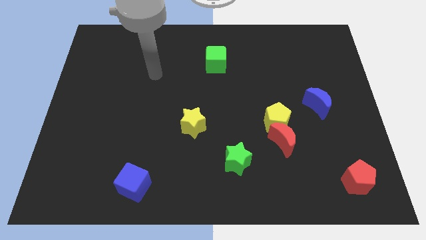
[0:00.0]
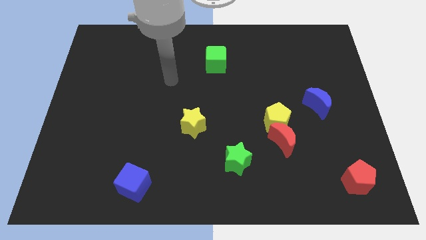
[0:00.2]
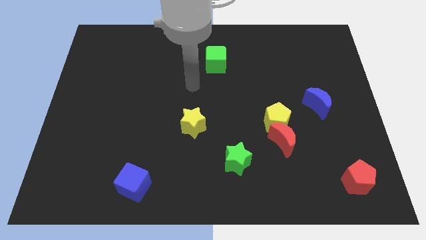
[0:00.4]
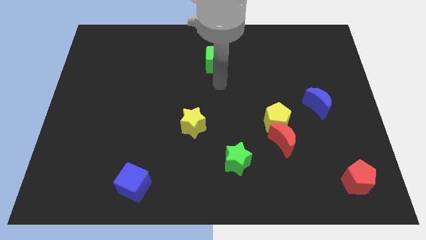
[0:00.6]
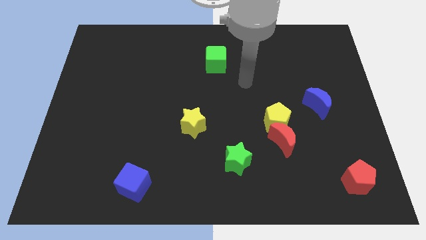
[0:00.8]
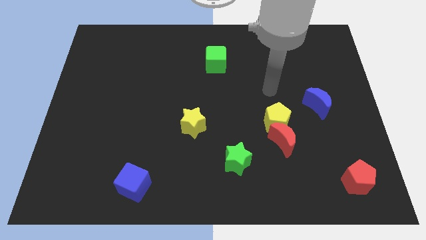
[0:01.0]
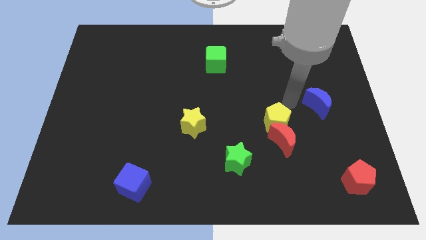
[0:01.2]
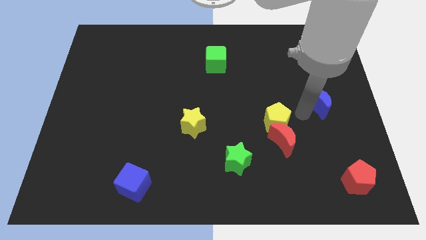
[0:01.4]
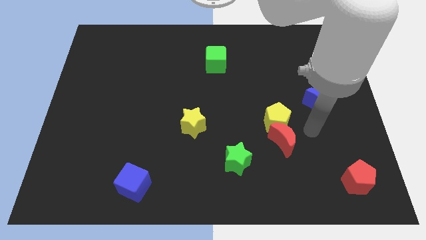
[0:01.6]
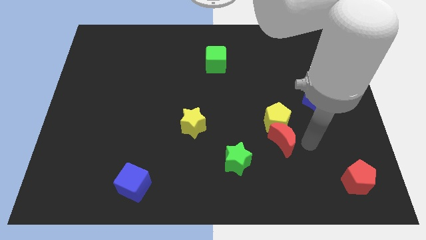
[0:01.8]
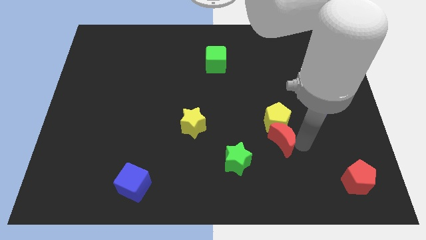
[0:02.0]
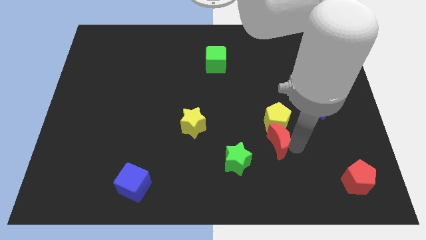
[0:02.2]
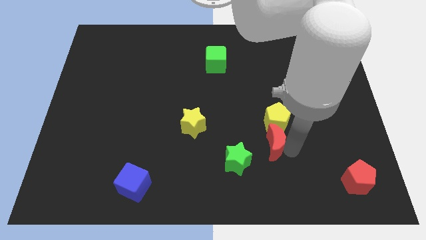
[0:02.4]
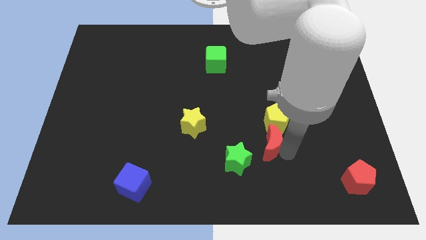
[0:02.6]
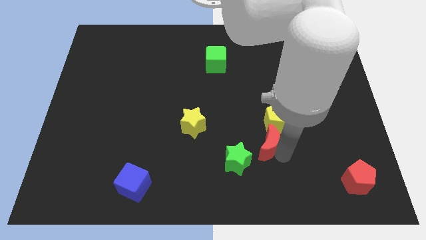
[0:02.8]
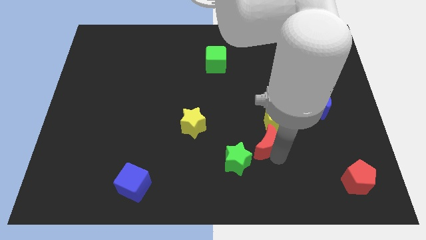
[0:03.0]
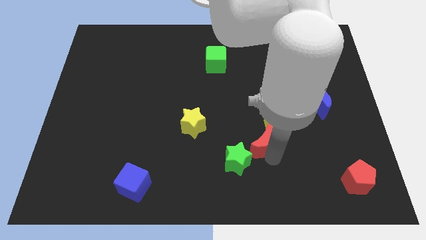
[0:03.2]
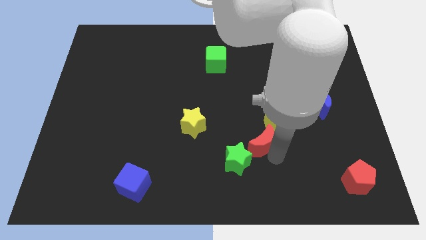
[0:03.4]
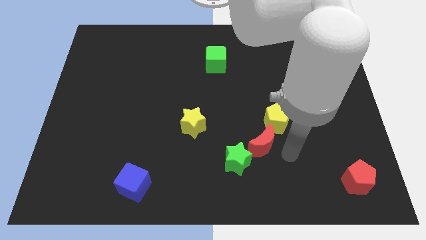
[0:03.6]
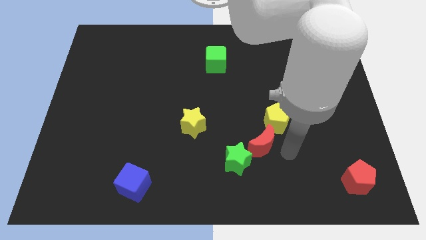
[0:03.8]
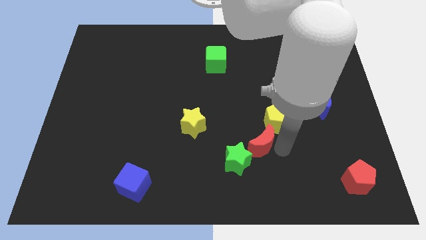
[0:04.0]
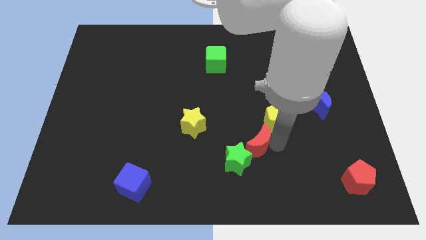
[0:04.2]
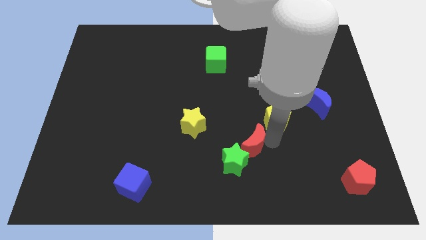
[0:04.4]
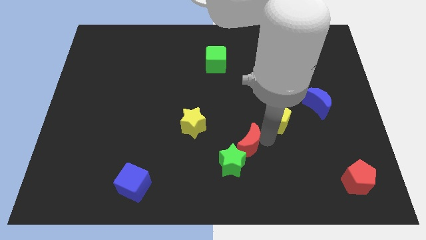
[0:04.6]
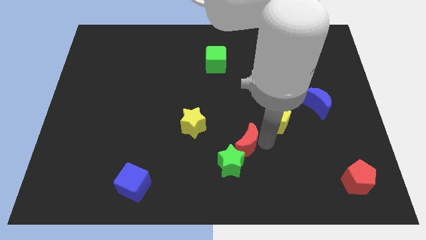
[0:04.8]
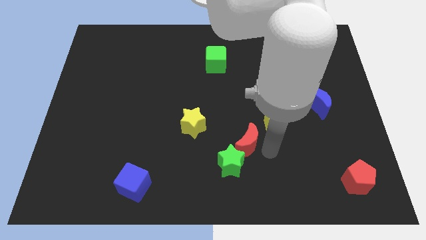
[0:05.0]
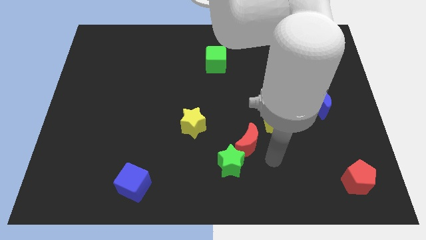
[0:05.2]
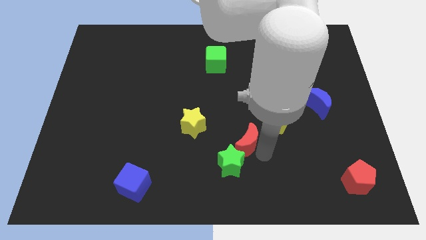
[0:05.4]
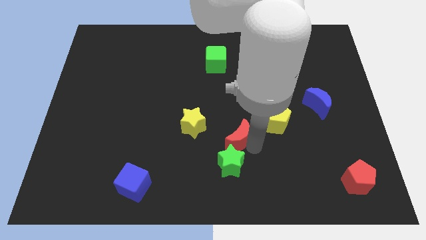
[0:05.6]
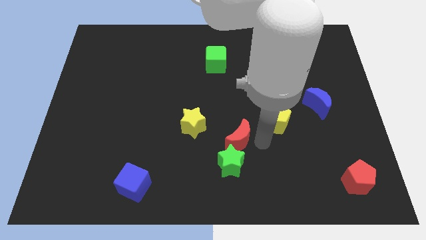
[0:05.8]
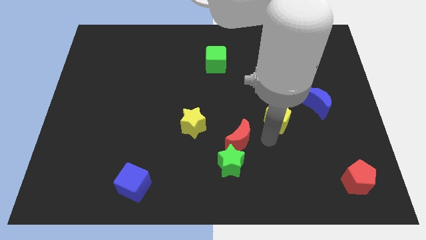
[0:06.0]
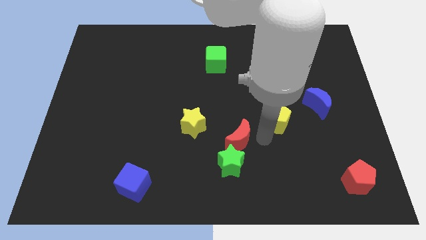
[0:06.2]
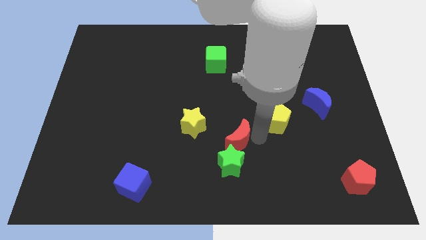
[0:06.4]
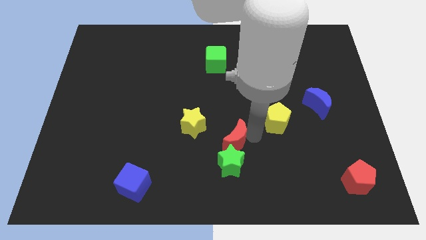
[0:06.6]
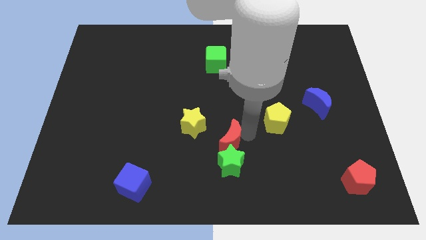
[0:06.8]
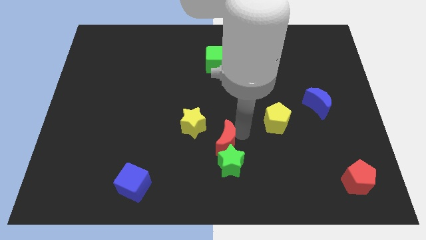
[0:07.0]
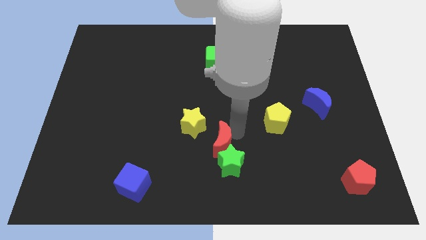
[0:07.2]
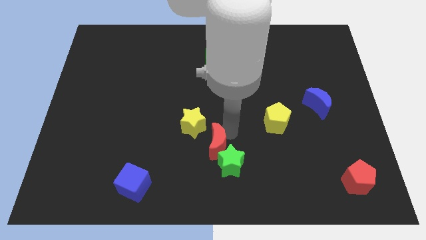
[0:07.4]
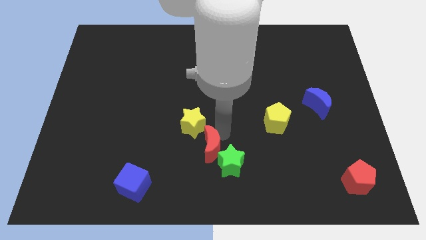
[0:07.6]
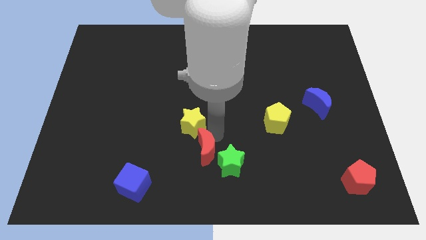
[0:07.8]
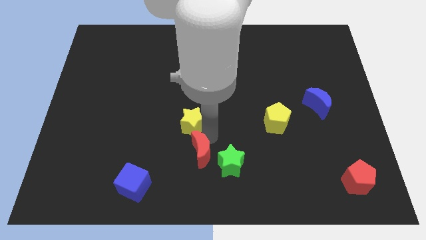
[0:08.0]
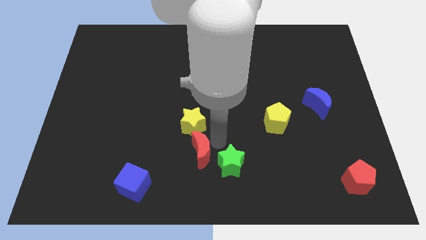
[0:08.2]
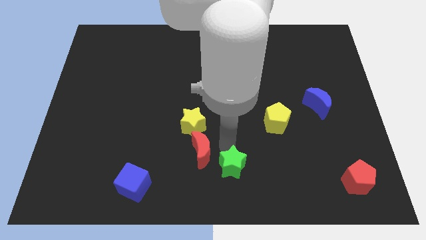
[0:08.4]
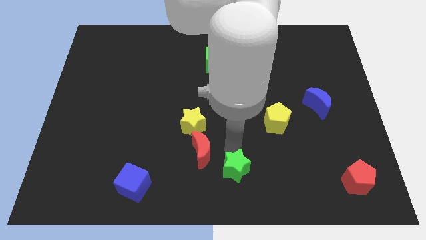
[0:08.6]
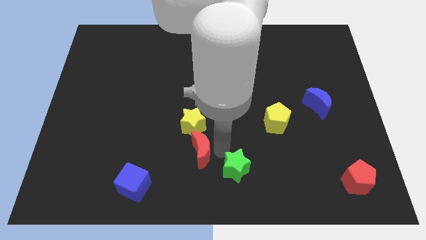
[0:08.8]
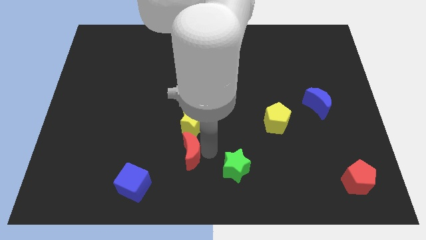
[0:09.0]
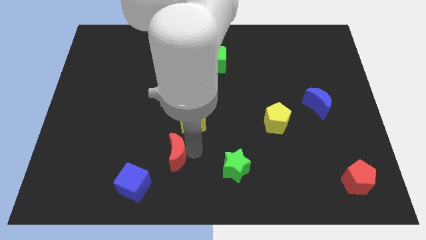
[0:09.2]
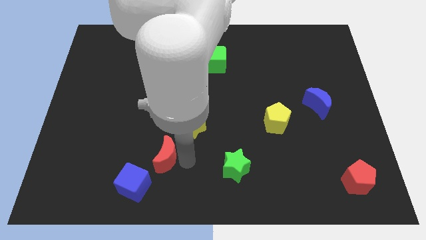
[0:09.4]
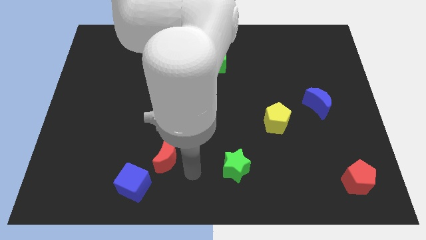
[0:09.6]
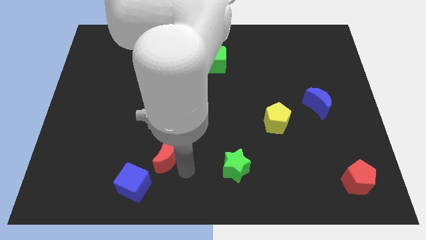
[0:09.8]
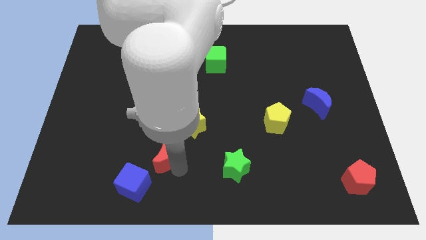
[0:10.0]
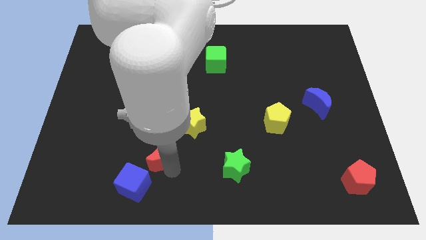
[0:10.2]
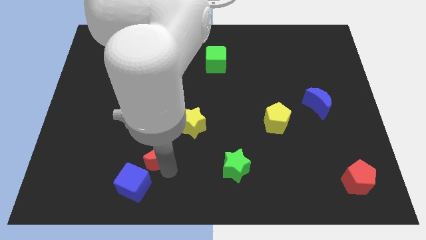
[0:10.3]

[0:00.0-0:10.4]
move the red moon to the top of the blue cube

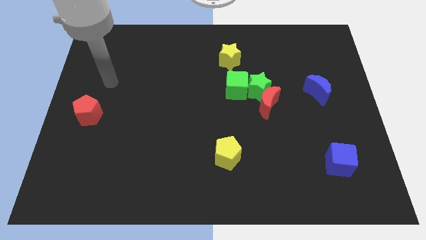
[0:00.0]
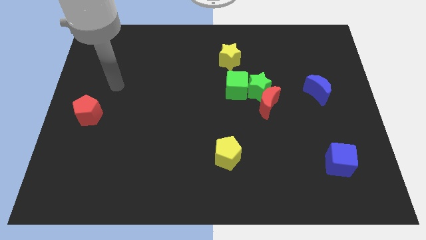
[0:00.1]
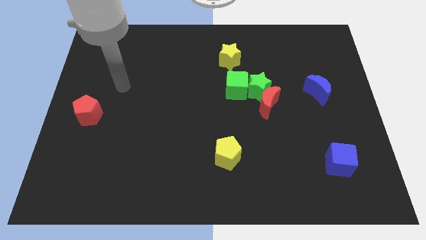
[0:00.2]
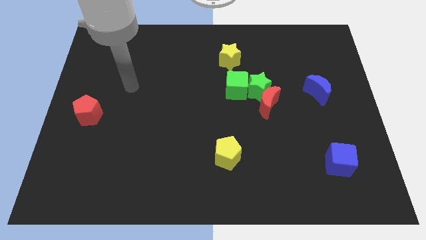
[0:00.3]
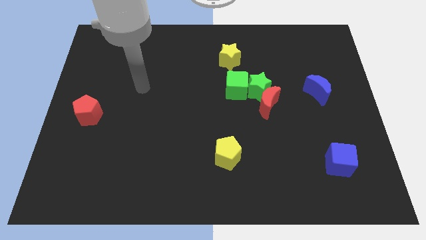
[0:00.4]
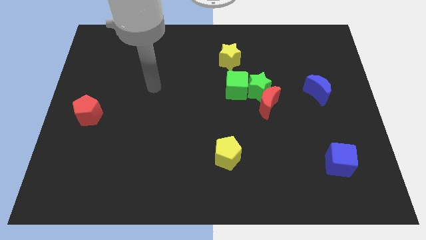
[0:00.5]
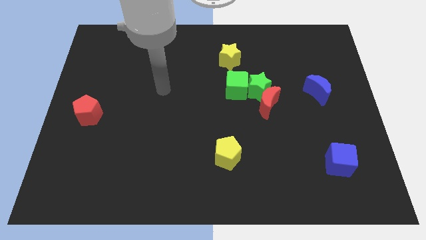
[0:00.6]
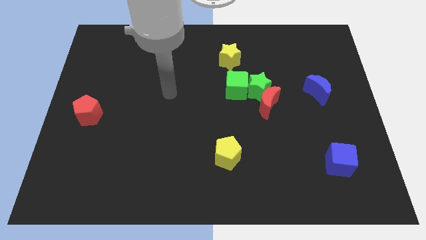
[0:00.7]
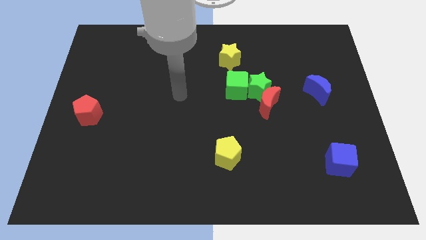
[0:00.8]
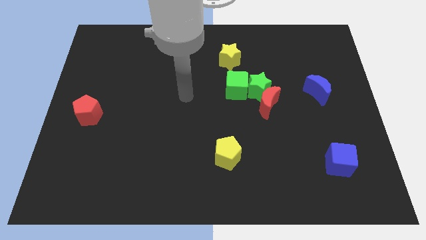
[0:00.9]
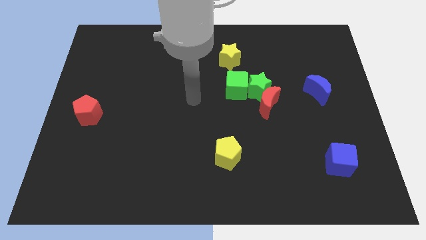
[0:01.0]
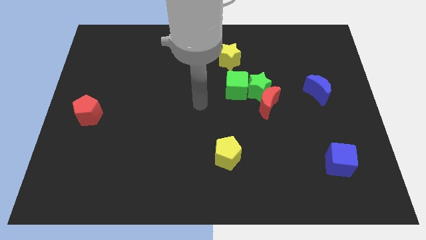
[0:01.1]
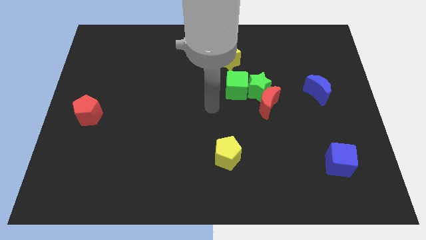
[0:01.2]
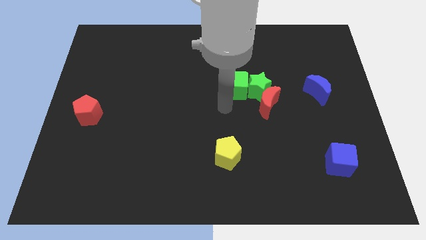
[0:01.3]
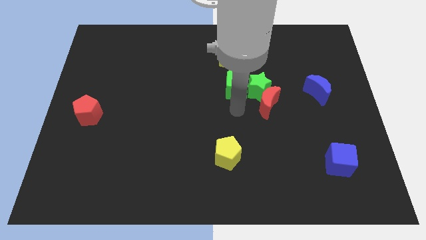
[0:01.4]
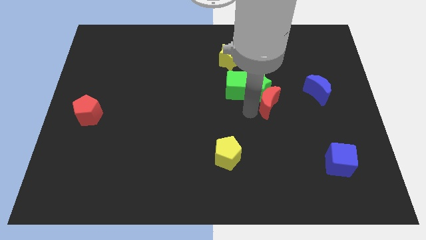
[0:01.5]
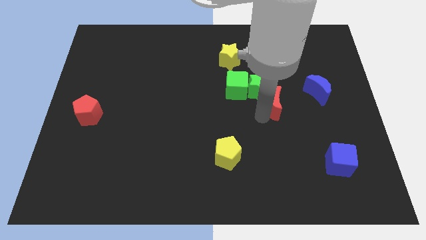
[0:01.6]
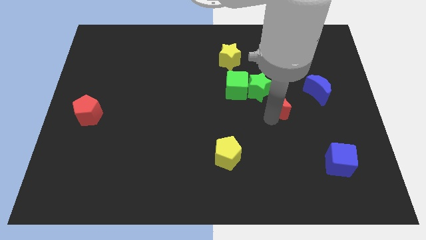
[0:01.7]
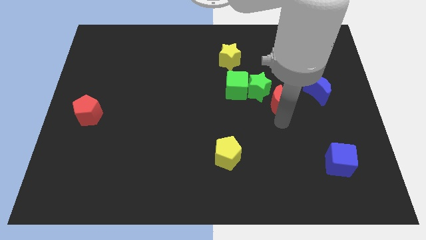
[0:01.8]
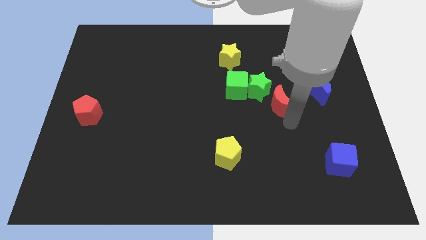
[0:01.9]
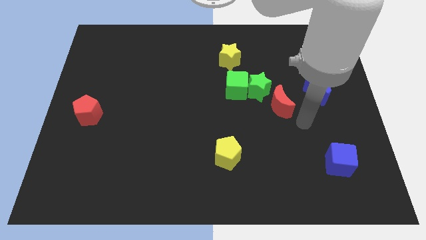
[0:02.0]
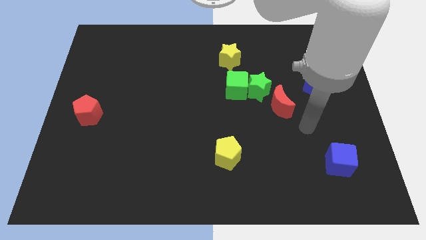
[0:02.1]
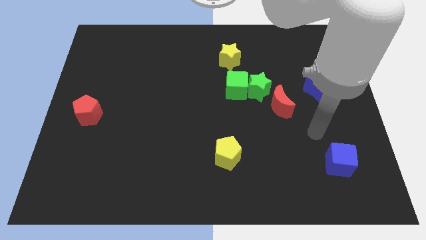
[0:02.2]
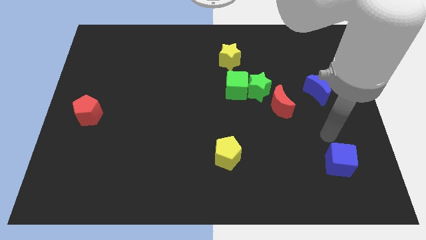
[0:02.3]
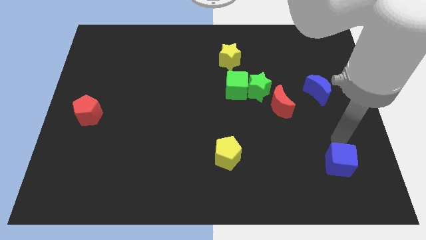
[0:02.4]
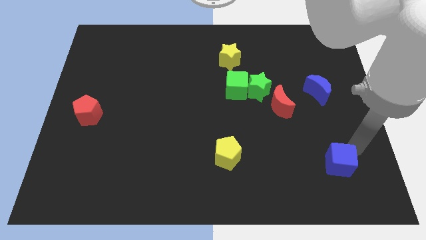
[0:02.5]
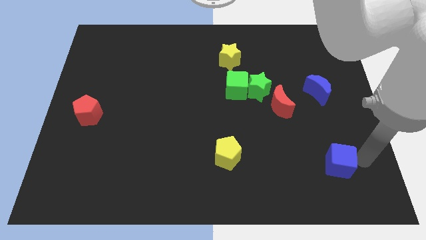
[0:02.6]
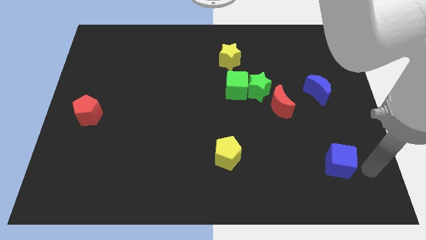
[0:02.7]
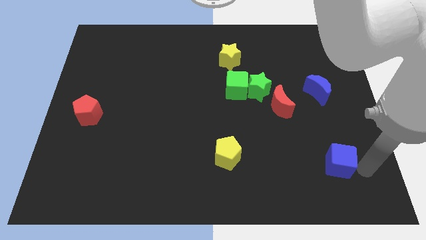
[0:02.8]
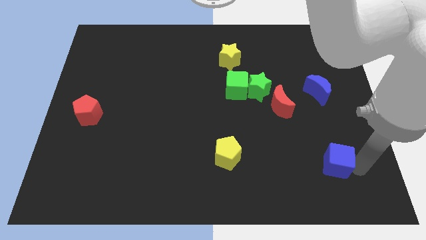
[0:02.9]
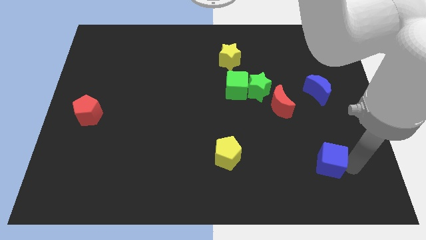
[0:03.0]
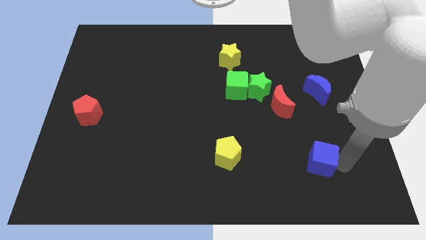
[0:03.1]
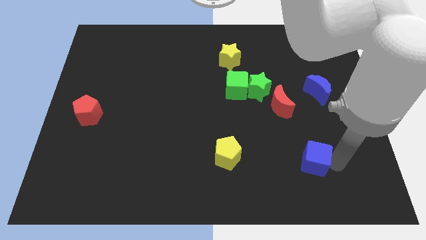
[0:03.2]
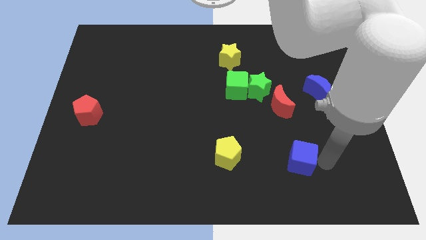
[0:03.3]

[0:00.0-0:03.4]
slide the blue cube to the right side of the yellow pentagon
